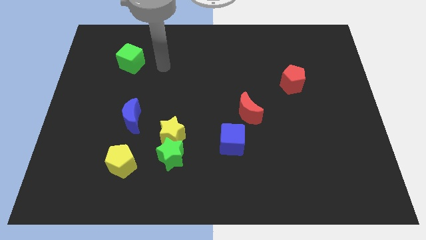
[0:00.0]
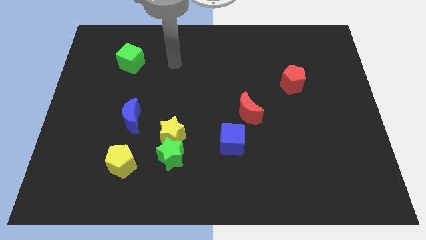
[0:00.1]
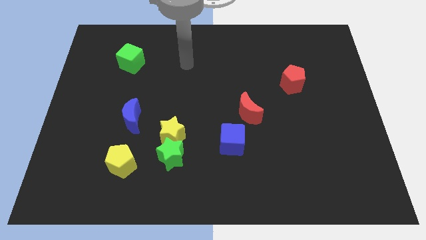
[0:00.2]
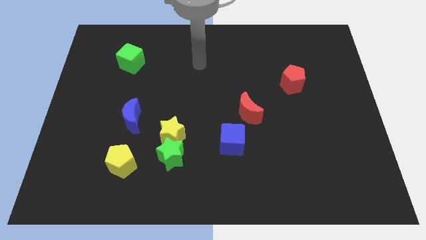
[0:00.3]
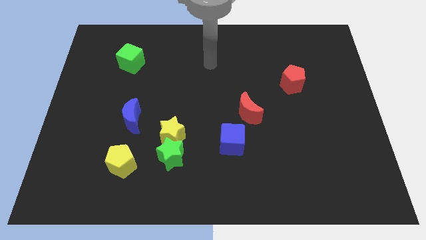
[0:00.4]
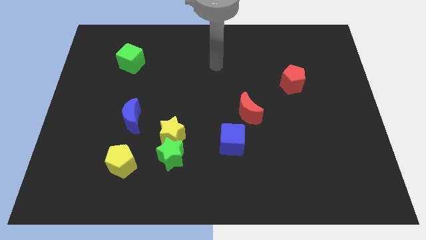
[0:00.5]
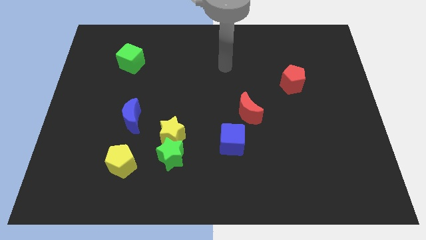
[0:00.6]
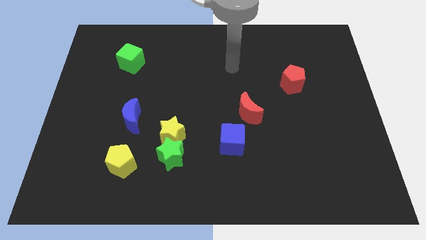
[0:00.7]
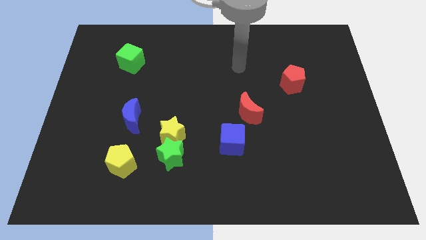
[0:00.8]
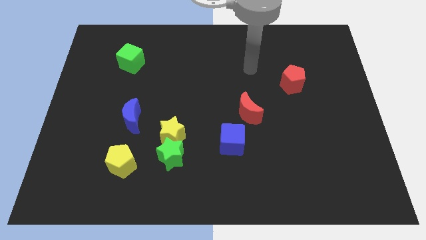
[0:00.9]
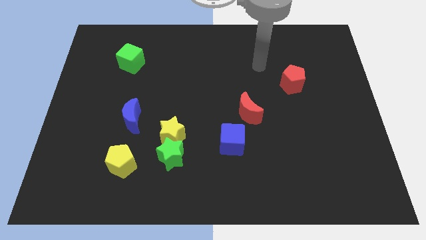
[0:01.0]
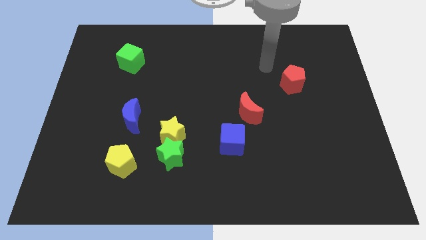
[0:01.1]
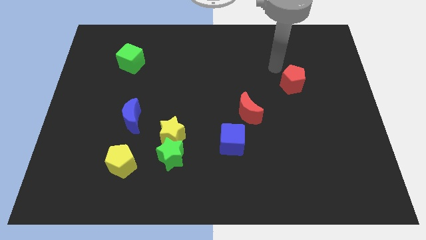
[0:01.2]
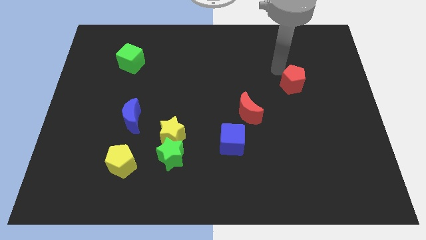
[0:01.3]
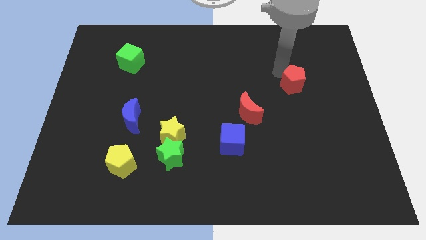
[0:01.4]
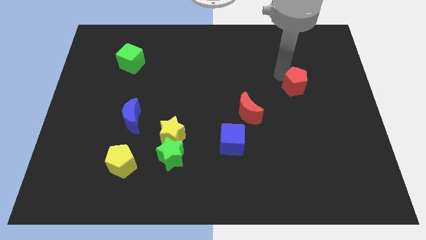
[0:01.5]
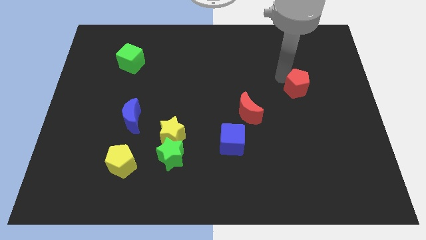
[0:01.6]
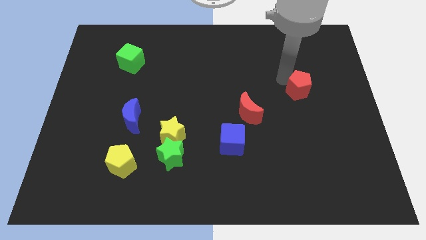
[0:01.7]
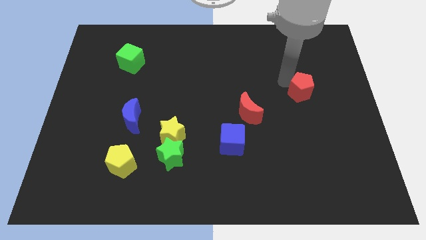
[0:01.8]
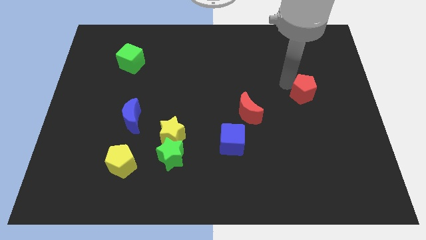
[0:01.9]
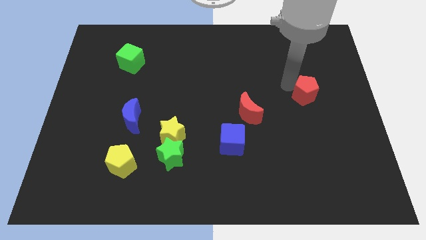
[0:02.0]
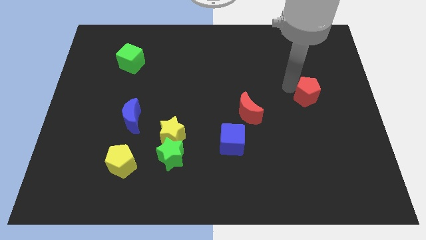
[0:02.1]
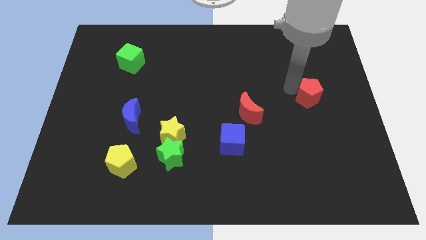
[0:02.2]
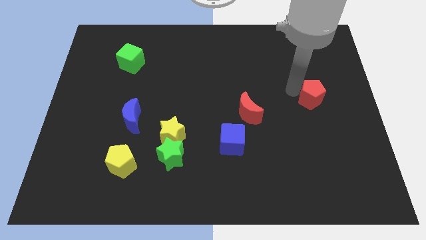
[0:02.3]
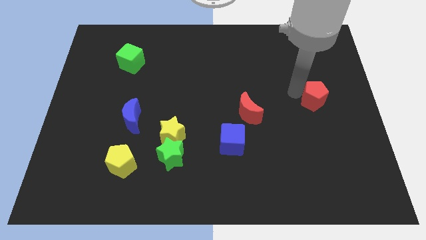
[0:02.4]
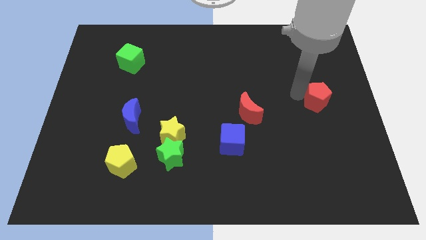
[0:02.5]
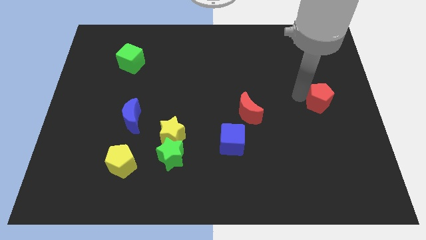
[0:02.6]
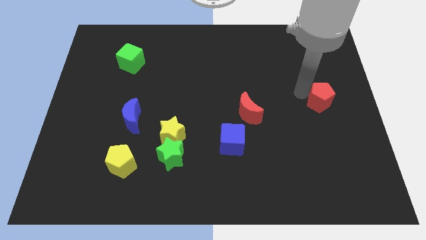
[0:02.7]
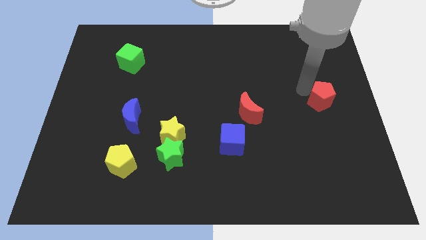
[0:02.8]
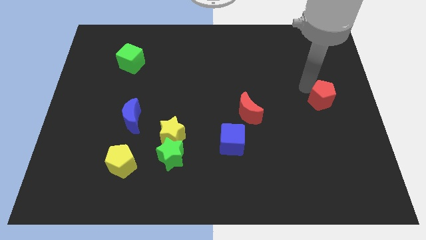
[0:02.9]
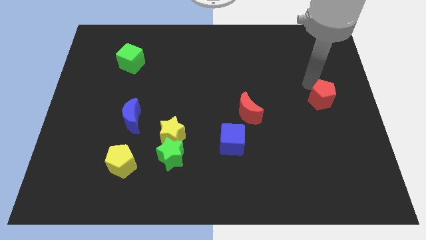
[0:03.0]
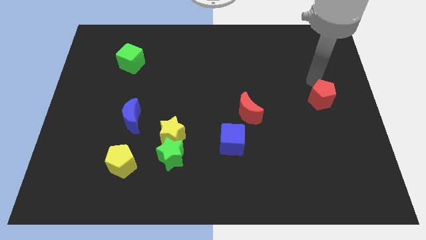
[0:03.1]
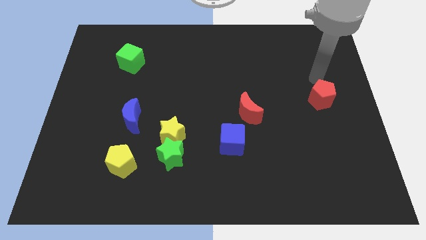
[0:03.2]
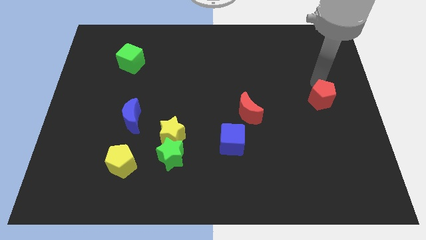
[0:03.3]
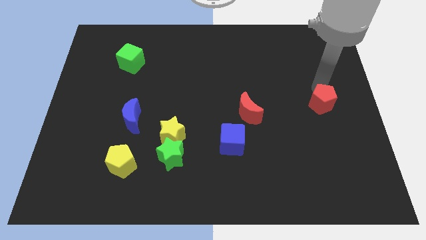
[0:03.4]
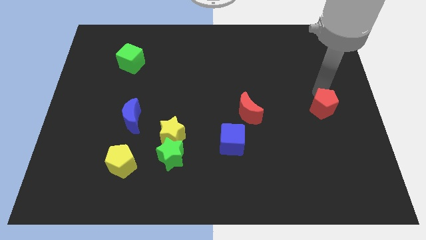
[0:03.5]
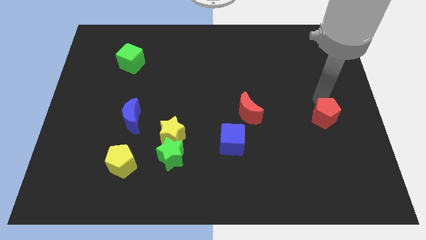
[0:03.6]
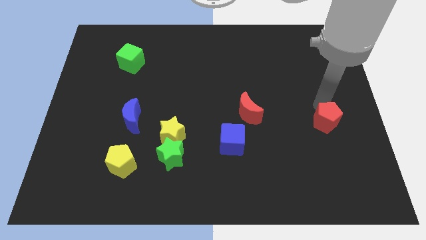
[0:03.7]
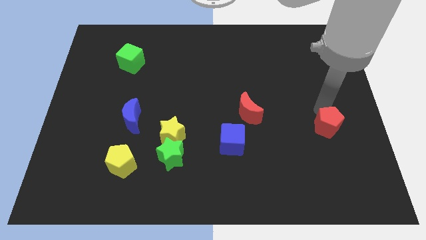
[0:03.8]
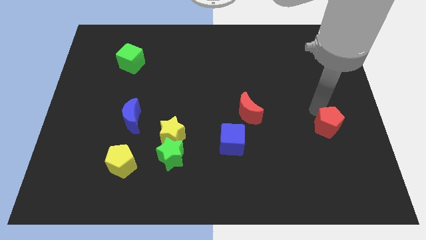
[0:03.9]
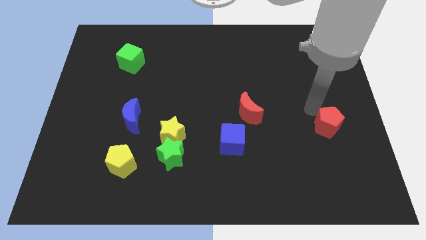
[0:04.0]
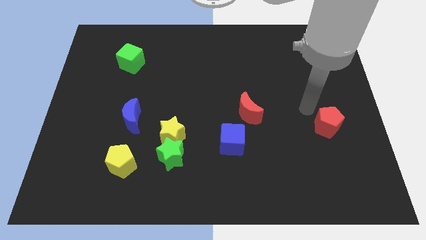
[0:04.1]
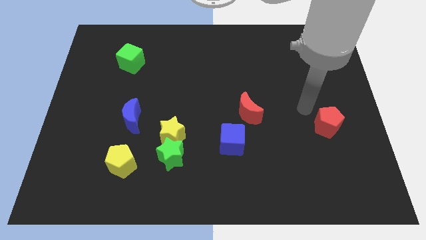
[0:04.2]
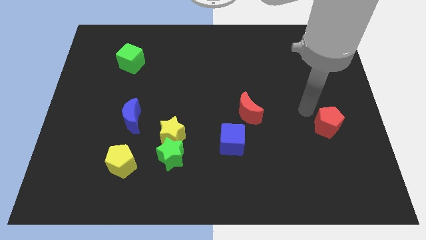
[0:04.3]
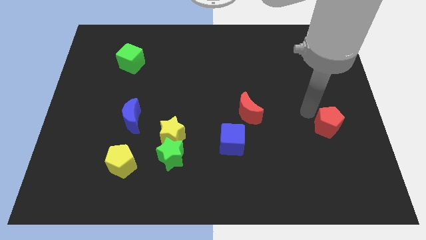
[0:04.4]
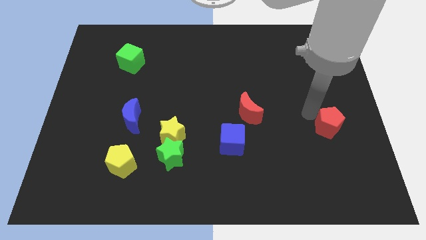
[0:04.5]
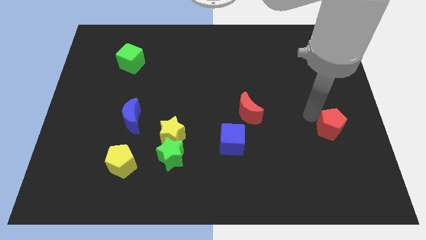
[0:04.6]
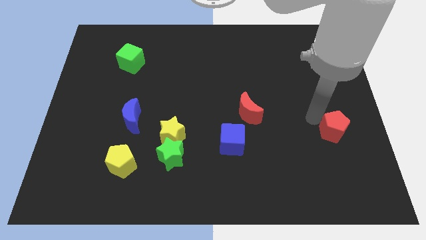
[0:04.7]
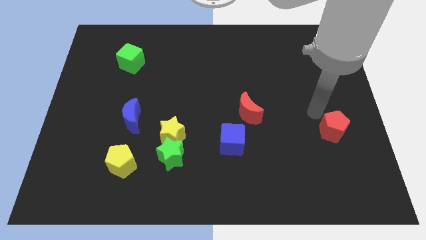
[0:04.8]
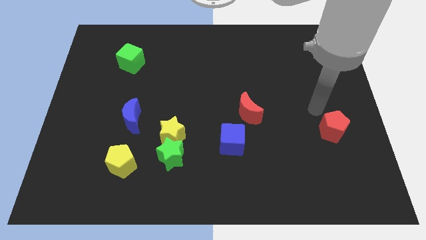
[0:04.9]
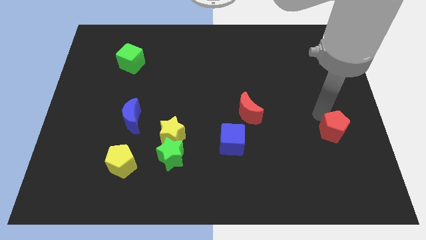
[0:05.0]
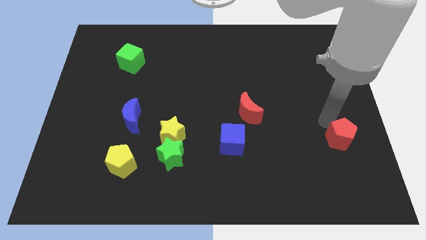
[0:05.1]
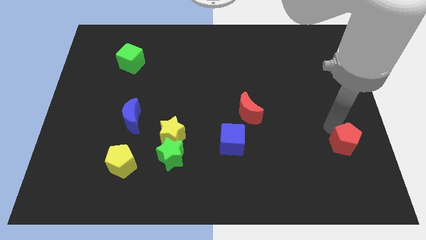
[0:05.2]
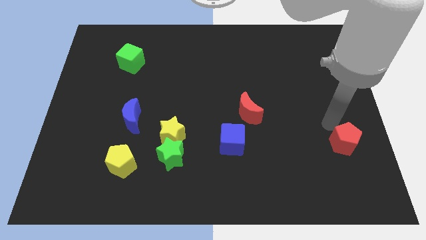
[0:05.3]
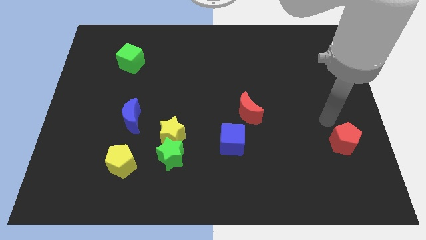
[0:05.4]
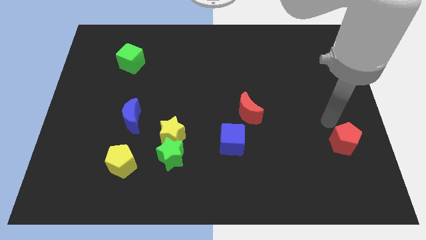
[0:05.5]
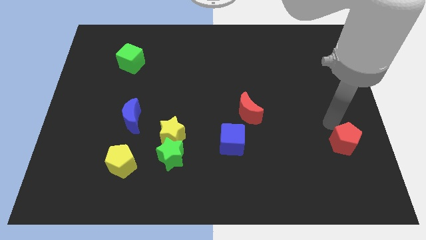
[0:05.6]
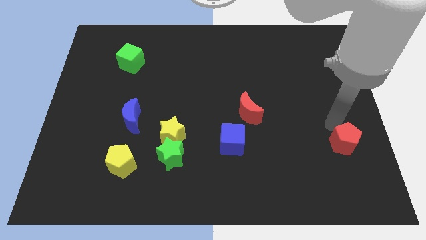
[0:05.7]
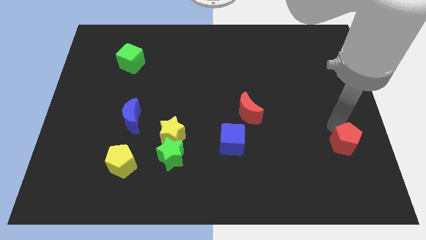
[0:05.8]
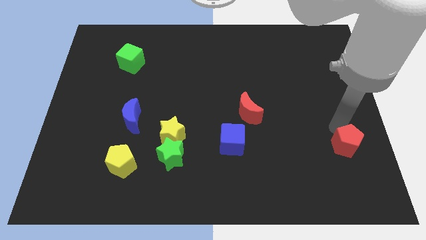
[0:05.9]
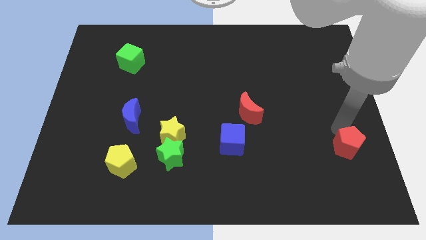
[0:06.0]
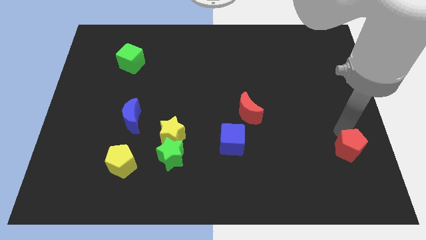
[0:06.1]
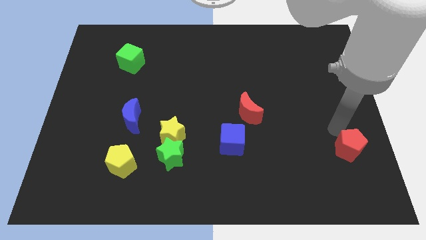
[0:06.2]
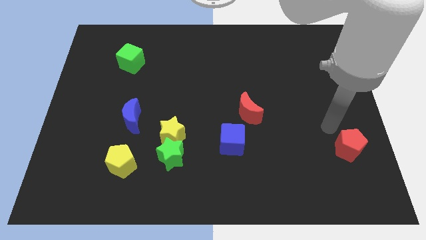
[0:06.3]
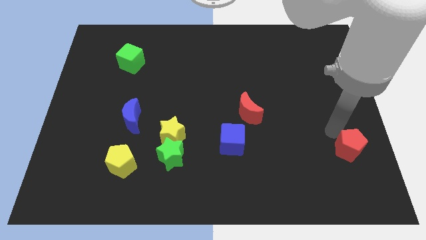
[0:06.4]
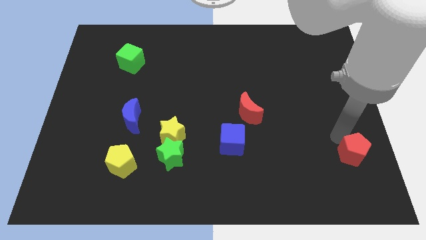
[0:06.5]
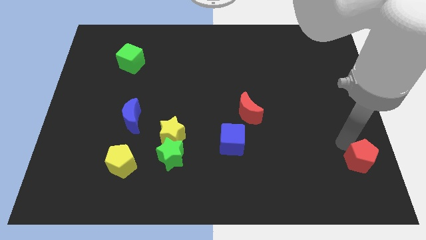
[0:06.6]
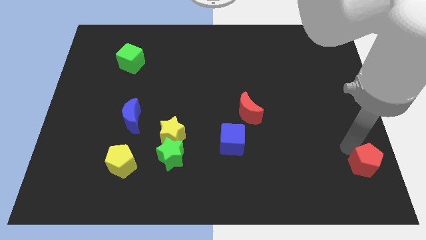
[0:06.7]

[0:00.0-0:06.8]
slide the red pentagon to the bottom right corner
